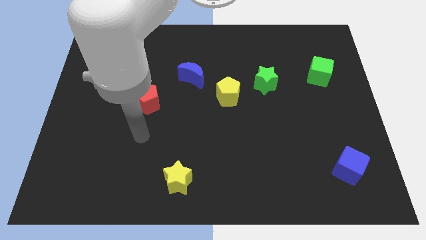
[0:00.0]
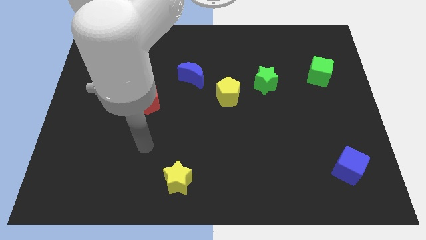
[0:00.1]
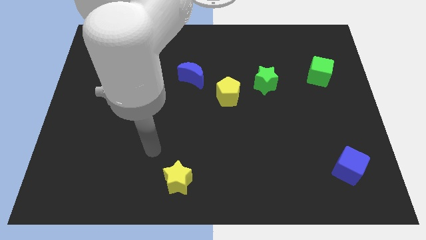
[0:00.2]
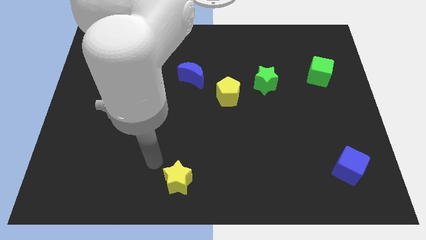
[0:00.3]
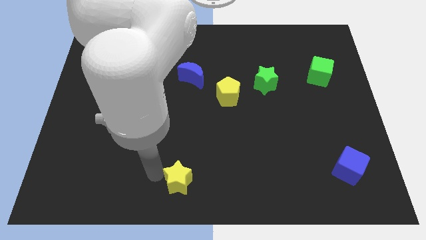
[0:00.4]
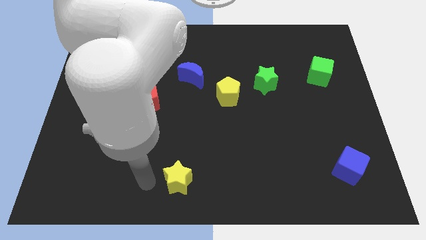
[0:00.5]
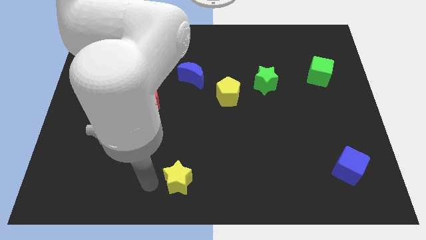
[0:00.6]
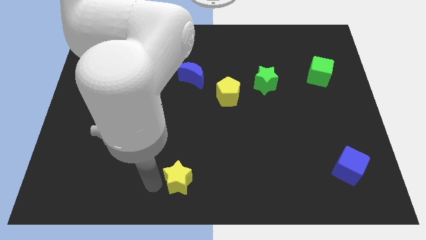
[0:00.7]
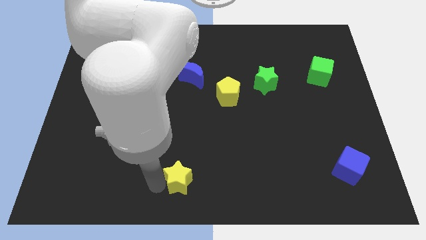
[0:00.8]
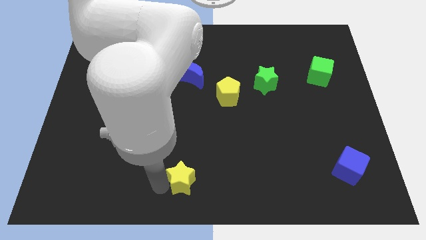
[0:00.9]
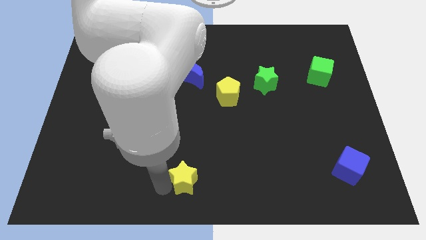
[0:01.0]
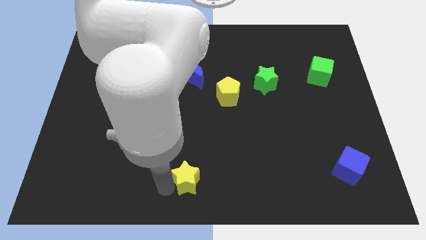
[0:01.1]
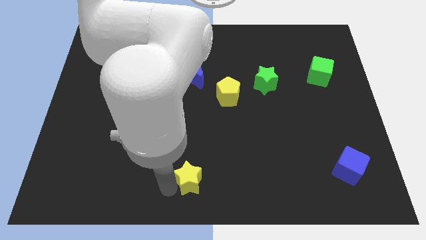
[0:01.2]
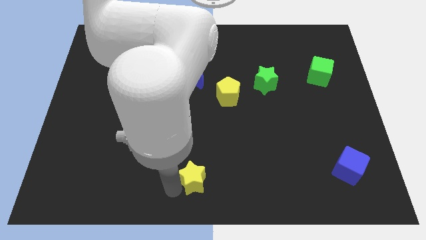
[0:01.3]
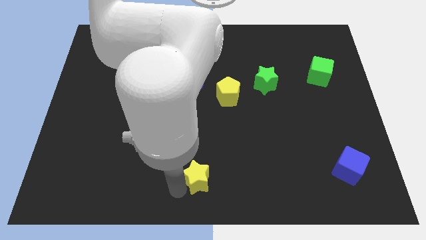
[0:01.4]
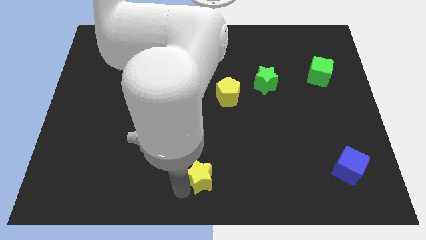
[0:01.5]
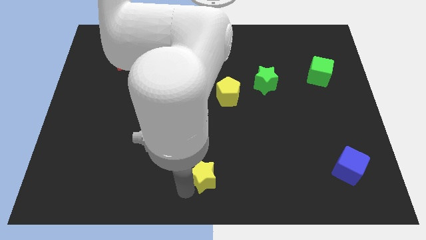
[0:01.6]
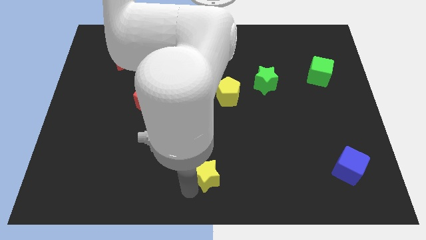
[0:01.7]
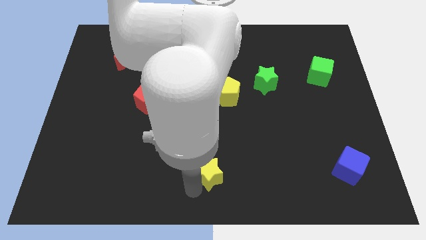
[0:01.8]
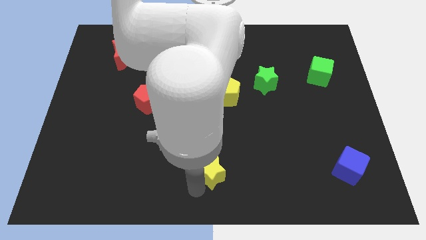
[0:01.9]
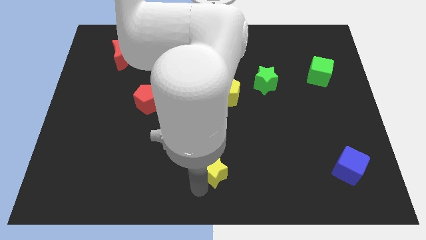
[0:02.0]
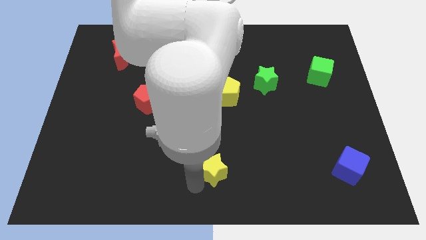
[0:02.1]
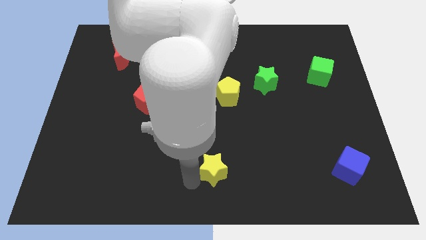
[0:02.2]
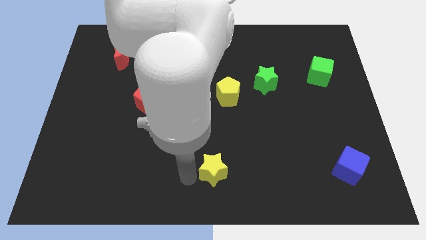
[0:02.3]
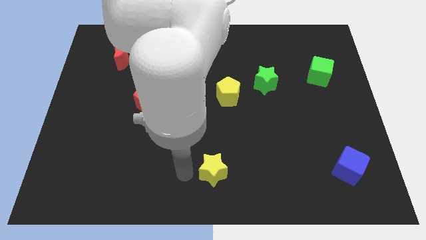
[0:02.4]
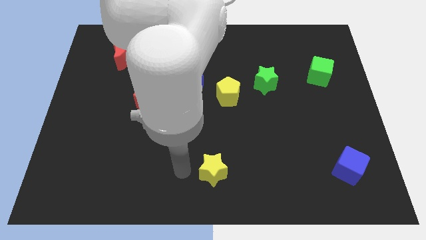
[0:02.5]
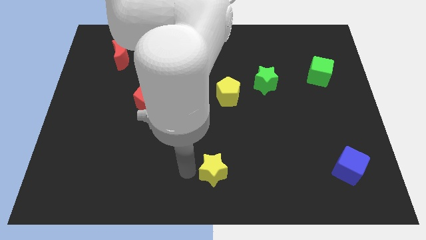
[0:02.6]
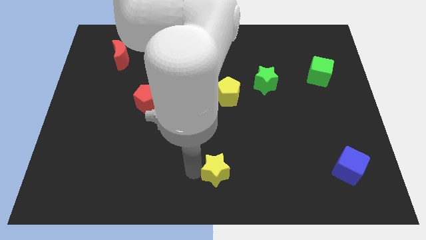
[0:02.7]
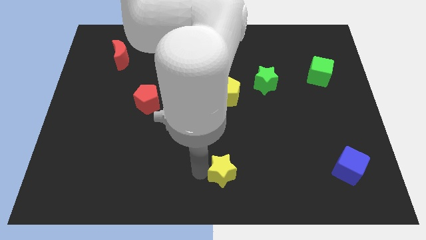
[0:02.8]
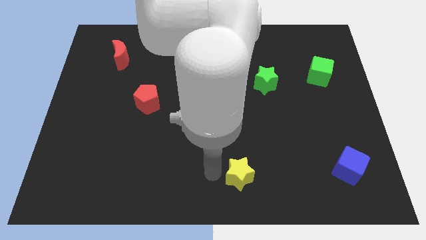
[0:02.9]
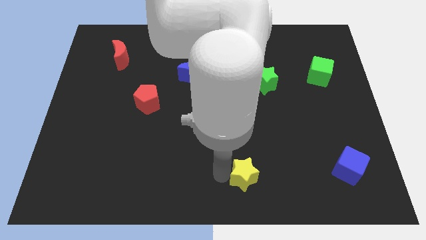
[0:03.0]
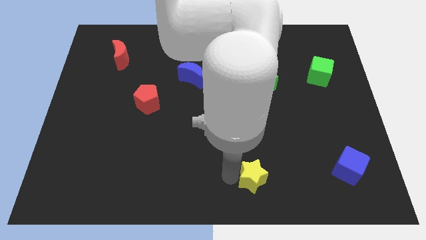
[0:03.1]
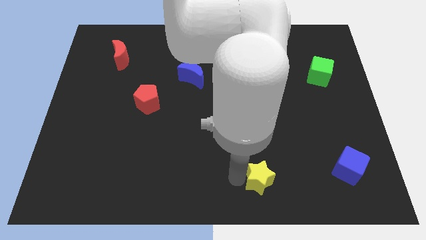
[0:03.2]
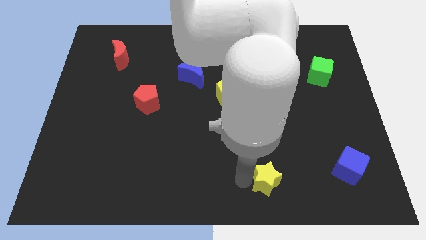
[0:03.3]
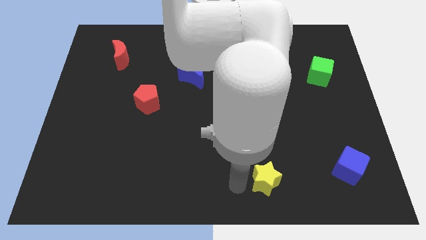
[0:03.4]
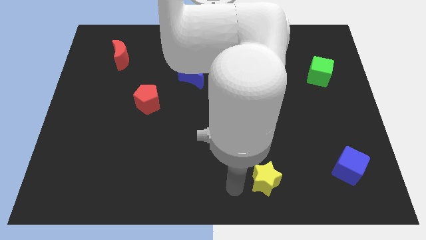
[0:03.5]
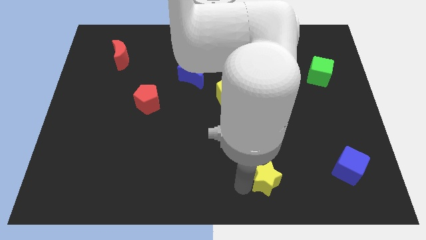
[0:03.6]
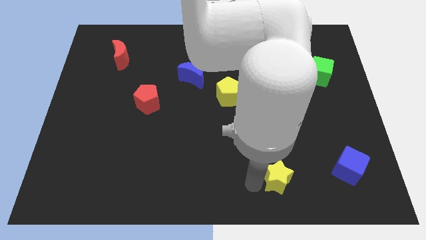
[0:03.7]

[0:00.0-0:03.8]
slide the yellow star to the right

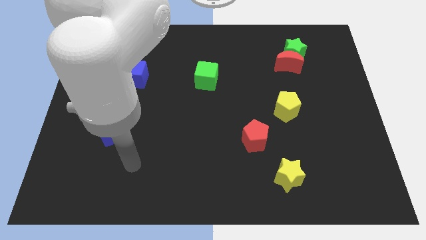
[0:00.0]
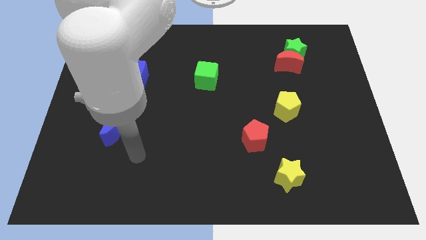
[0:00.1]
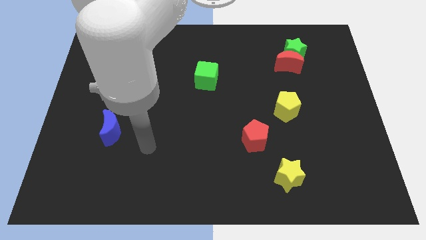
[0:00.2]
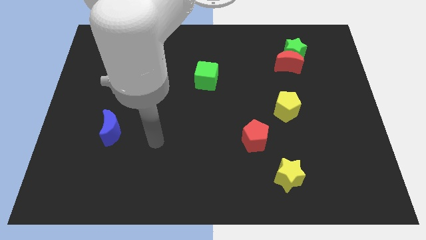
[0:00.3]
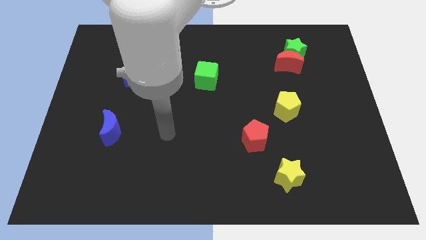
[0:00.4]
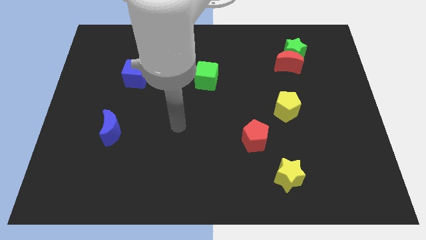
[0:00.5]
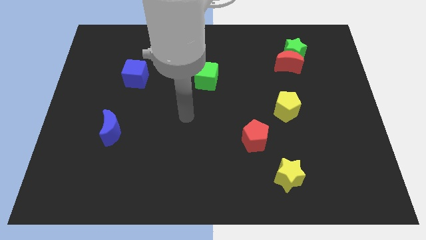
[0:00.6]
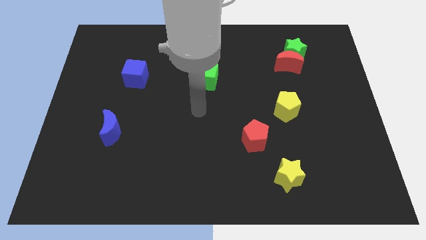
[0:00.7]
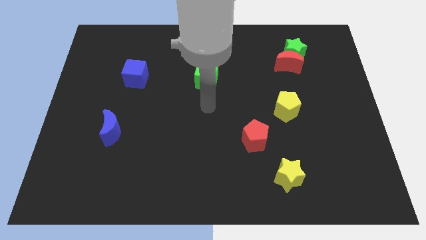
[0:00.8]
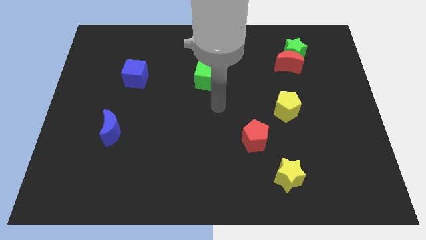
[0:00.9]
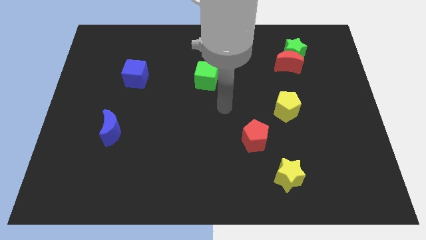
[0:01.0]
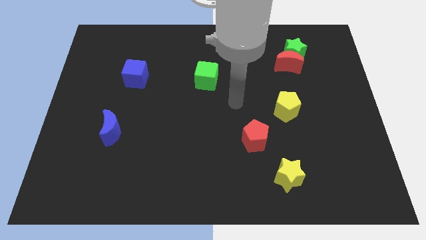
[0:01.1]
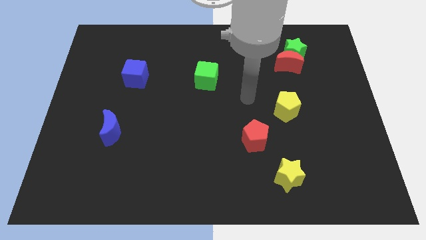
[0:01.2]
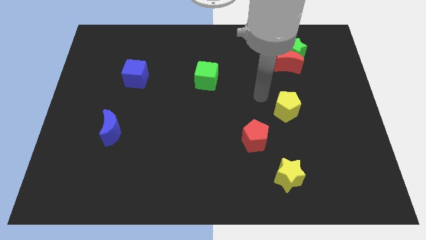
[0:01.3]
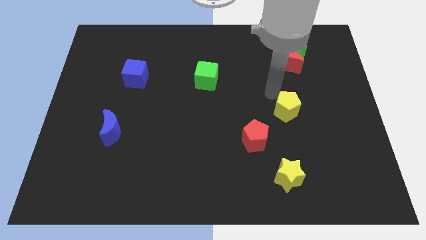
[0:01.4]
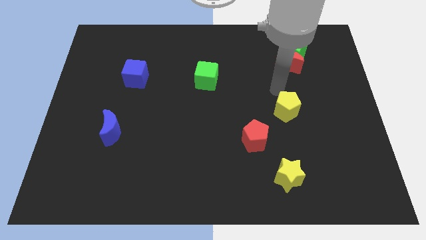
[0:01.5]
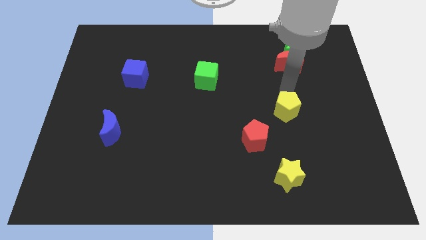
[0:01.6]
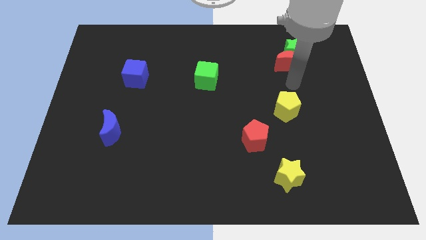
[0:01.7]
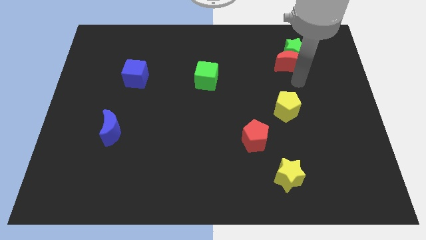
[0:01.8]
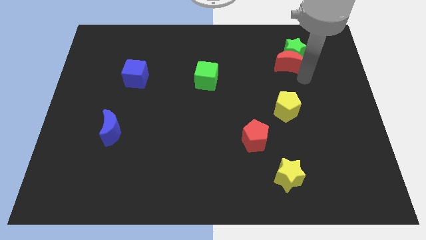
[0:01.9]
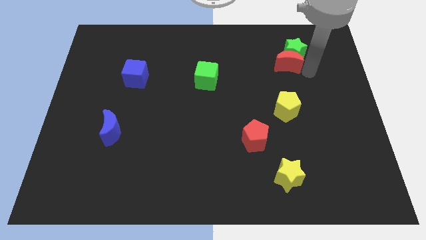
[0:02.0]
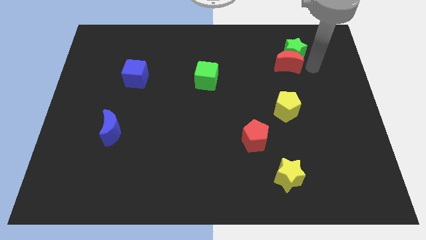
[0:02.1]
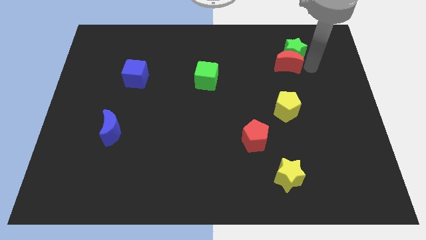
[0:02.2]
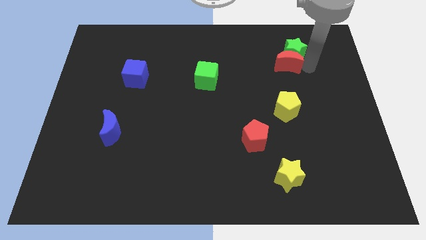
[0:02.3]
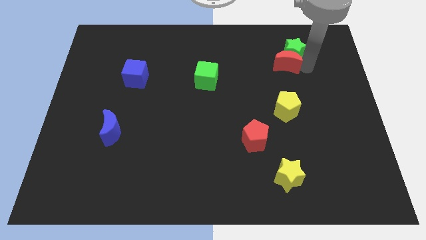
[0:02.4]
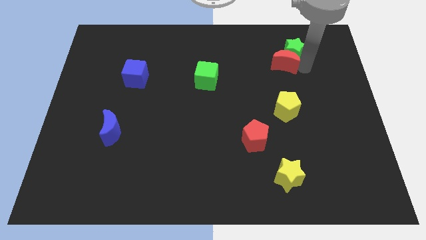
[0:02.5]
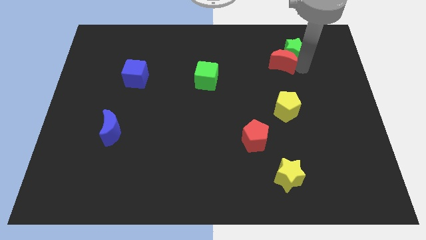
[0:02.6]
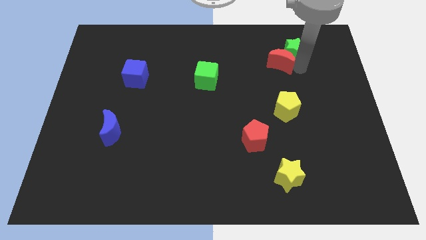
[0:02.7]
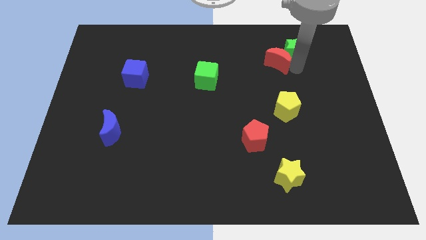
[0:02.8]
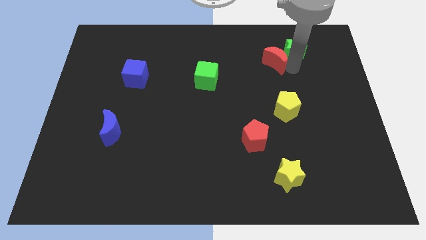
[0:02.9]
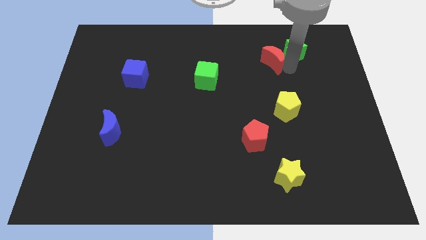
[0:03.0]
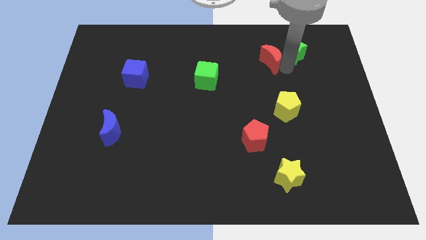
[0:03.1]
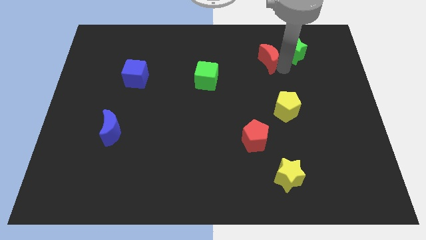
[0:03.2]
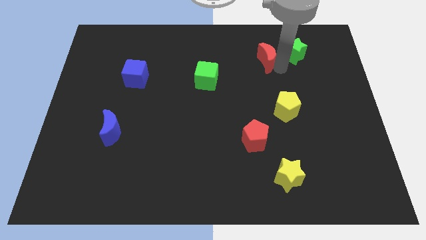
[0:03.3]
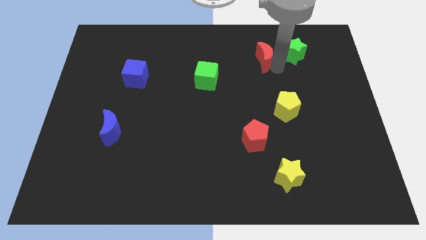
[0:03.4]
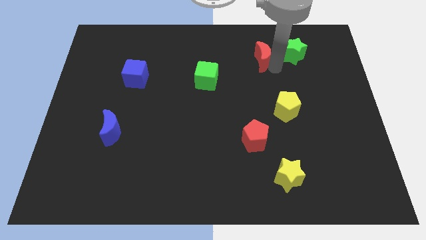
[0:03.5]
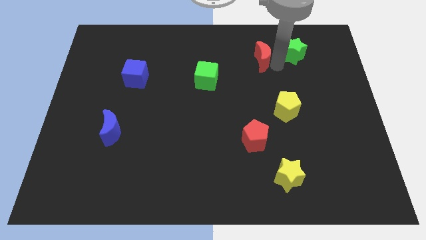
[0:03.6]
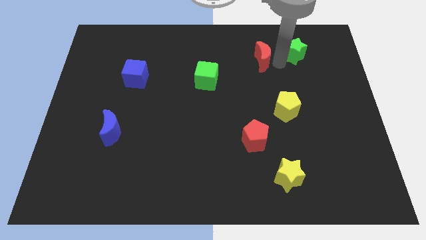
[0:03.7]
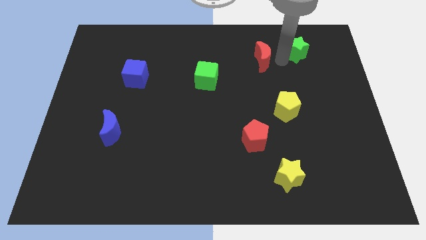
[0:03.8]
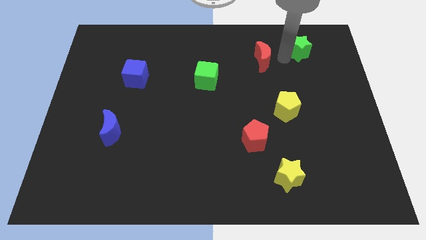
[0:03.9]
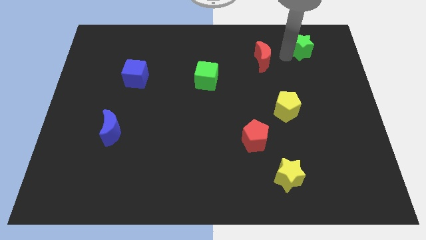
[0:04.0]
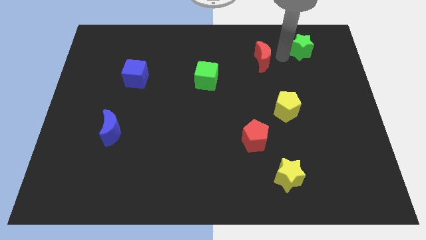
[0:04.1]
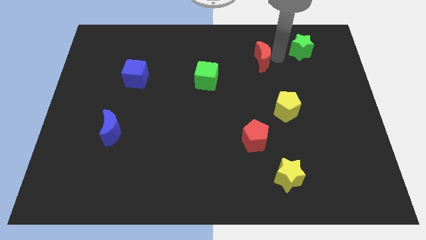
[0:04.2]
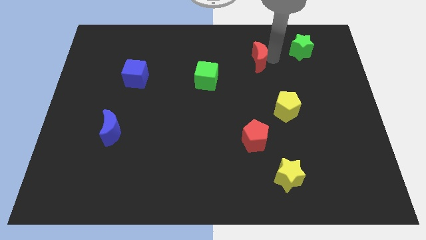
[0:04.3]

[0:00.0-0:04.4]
slide the red moon to the left somewhat
